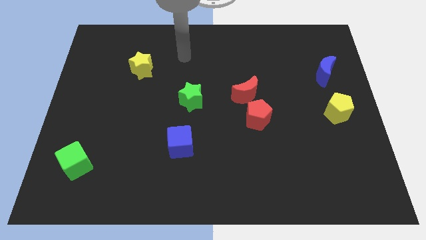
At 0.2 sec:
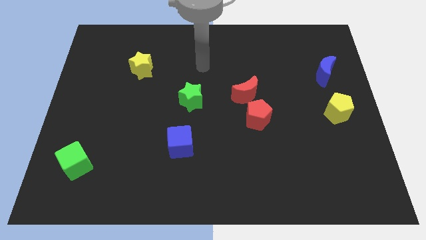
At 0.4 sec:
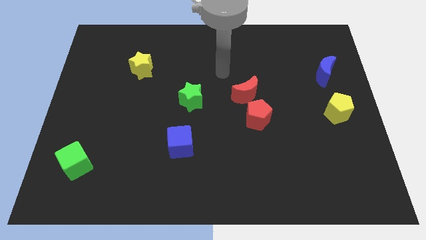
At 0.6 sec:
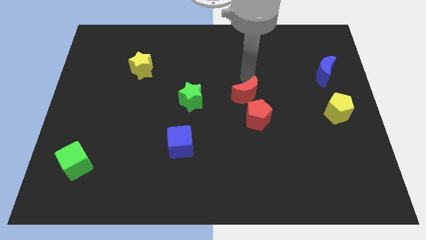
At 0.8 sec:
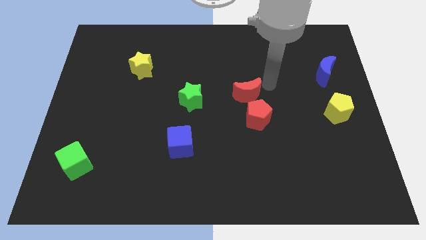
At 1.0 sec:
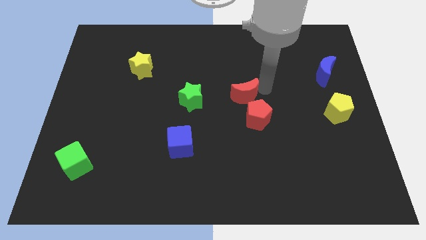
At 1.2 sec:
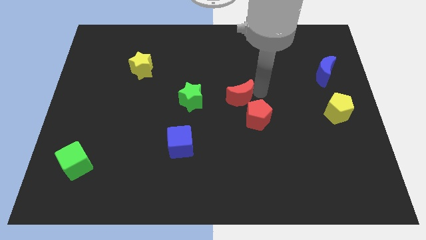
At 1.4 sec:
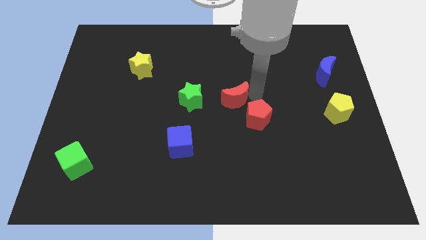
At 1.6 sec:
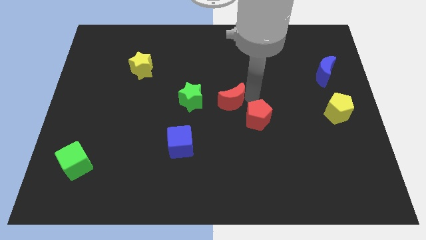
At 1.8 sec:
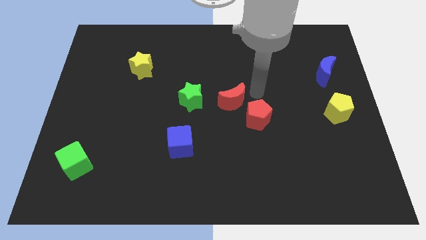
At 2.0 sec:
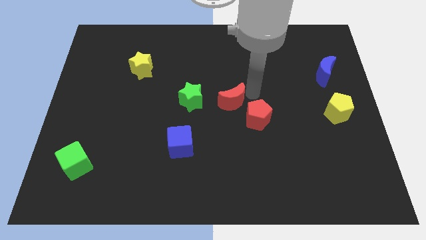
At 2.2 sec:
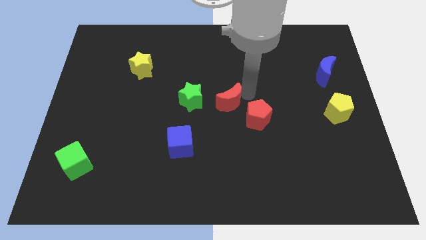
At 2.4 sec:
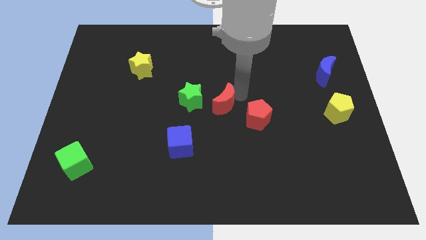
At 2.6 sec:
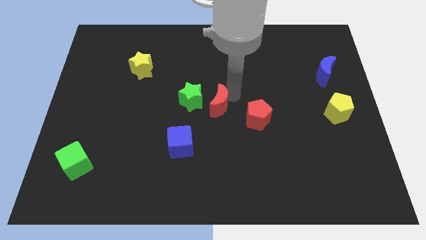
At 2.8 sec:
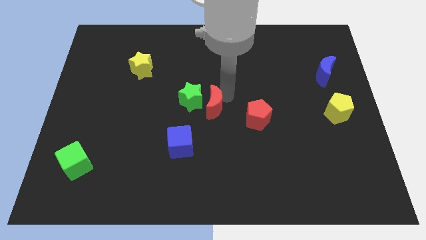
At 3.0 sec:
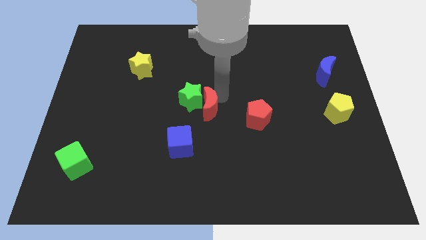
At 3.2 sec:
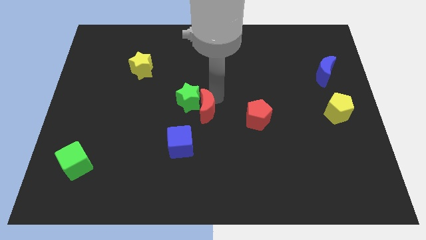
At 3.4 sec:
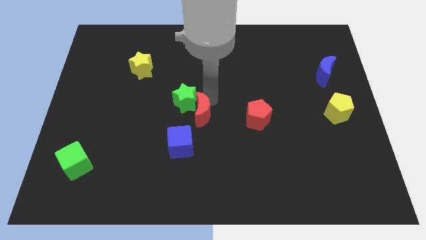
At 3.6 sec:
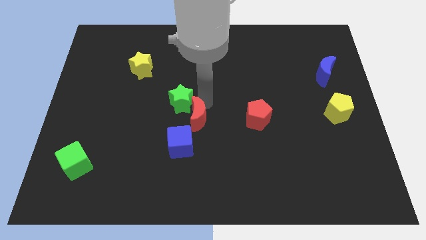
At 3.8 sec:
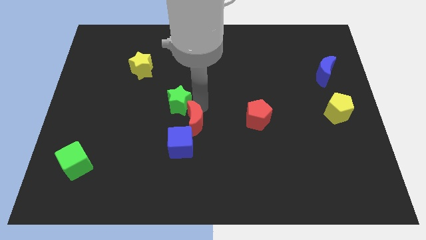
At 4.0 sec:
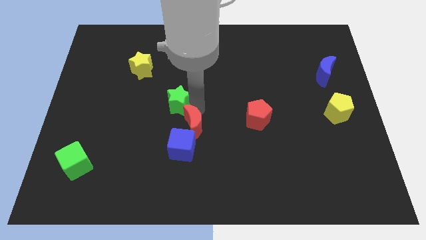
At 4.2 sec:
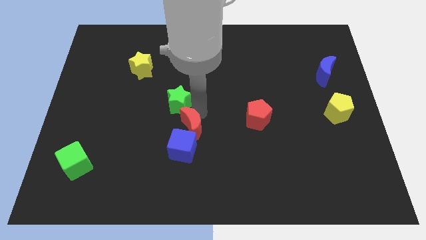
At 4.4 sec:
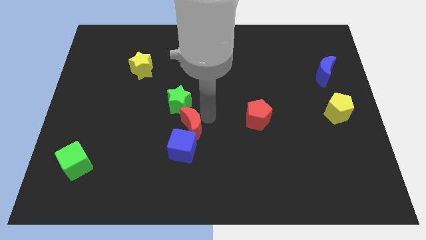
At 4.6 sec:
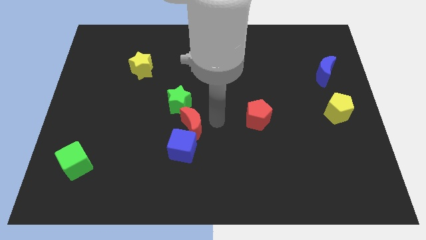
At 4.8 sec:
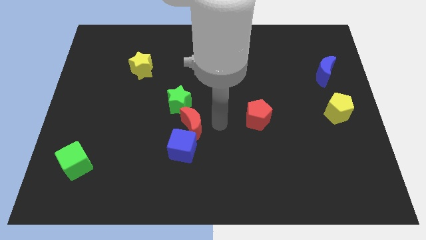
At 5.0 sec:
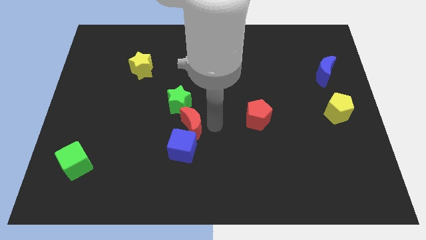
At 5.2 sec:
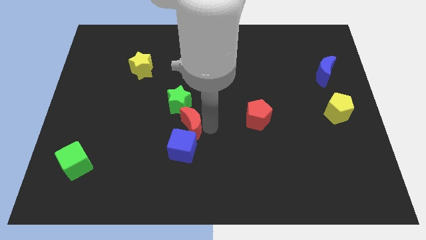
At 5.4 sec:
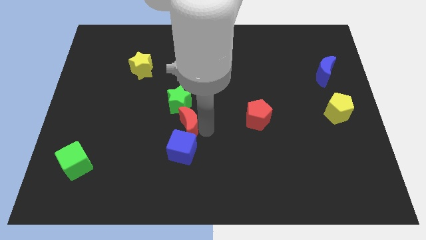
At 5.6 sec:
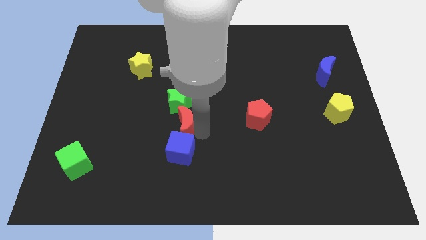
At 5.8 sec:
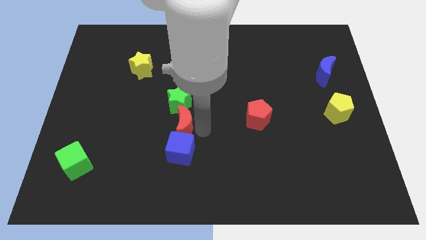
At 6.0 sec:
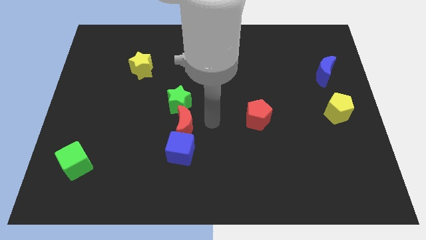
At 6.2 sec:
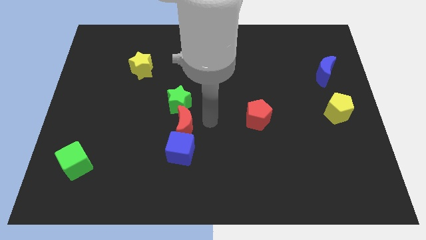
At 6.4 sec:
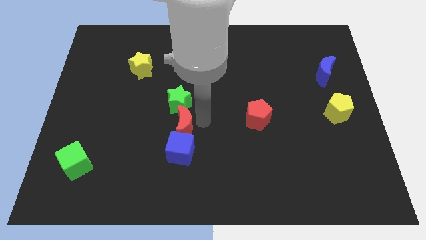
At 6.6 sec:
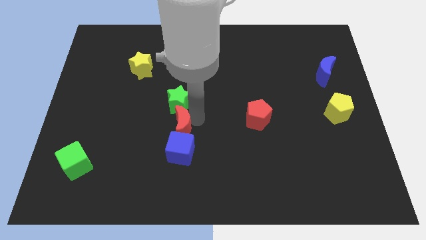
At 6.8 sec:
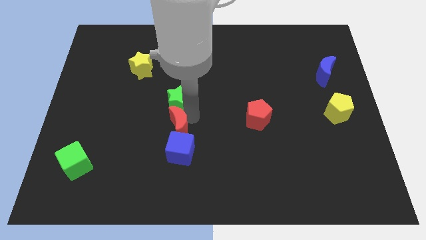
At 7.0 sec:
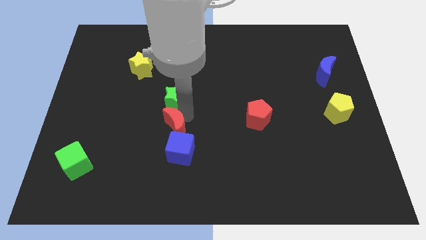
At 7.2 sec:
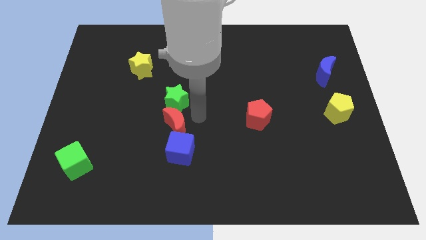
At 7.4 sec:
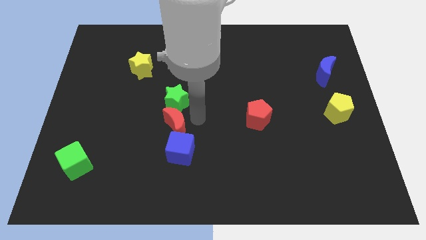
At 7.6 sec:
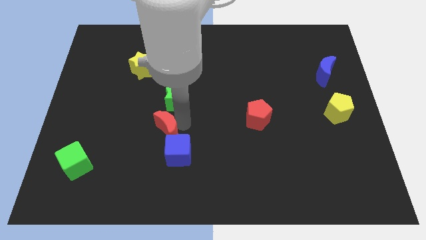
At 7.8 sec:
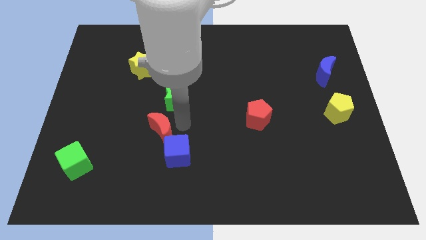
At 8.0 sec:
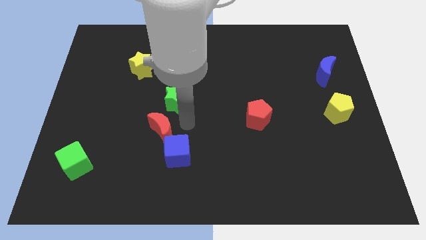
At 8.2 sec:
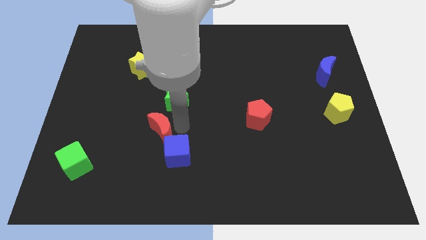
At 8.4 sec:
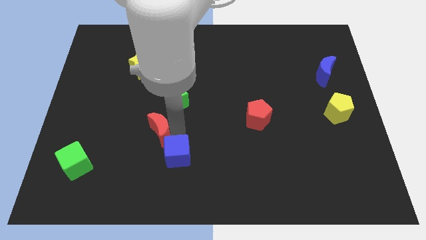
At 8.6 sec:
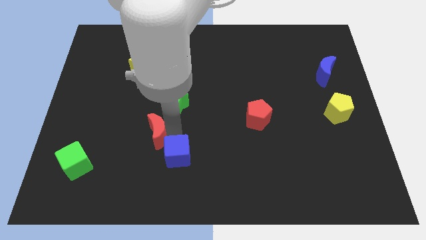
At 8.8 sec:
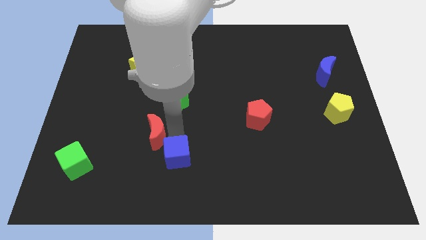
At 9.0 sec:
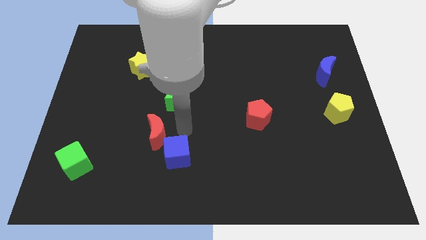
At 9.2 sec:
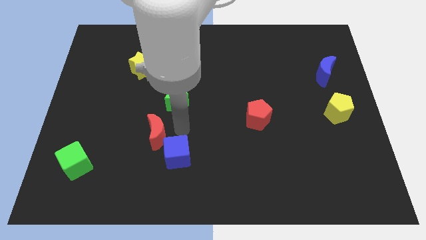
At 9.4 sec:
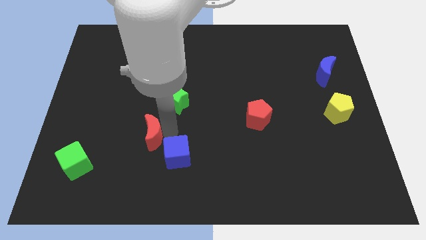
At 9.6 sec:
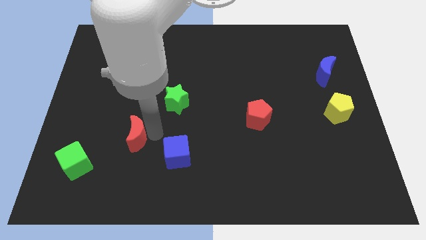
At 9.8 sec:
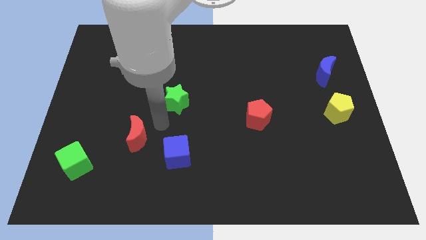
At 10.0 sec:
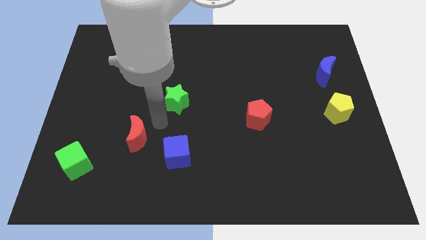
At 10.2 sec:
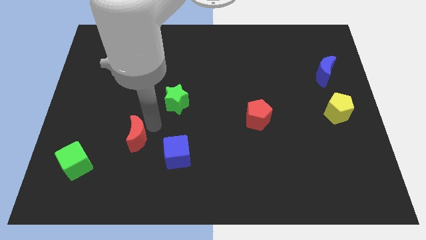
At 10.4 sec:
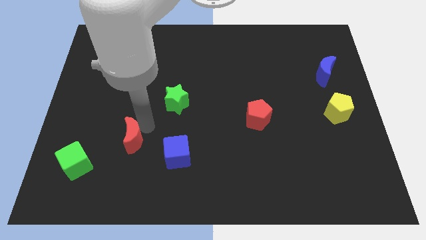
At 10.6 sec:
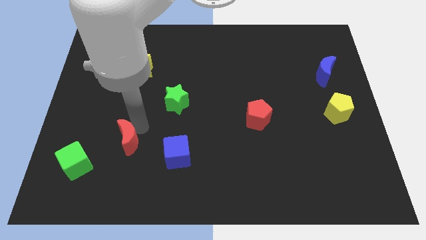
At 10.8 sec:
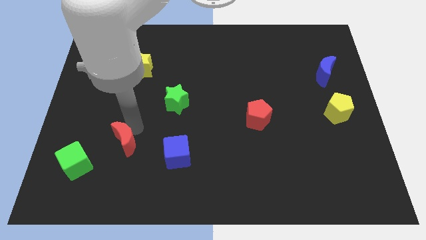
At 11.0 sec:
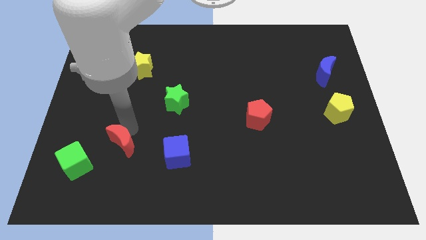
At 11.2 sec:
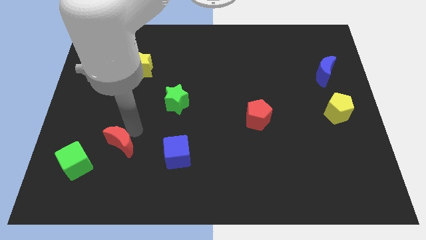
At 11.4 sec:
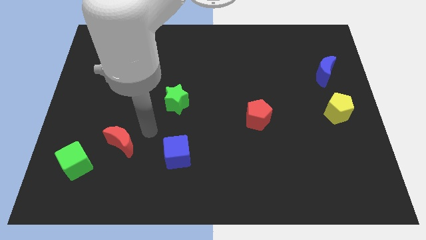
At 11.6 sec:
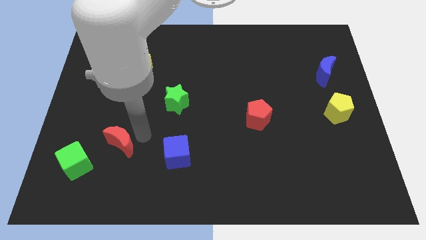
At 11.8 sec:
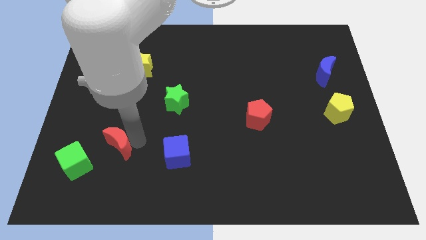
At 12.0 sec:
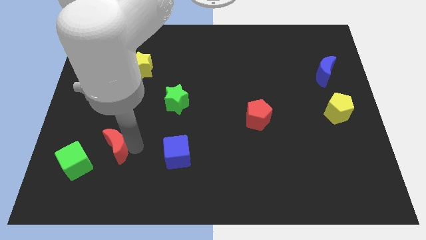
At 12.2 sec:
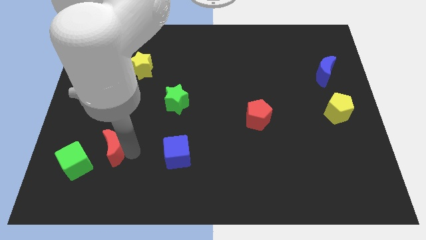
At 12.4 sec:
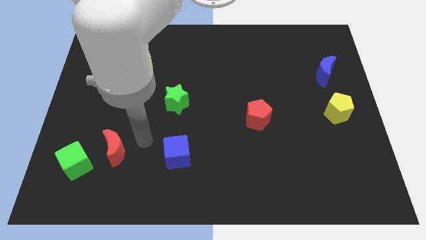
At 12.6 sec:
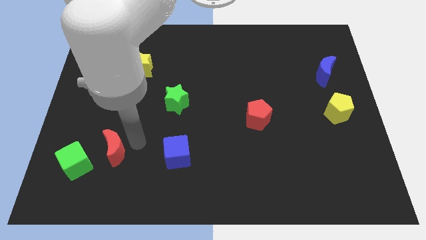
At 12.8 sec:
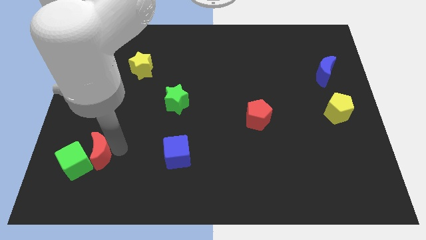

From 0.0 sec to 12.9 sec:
slide the red moon towards the green cube
